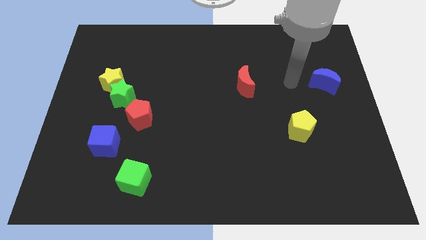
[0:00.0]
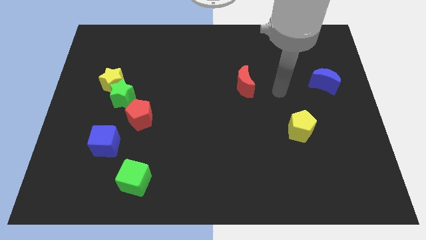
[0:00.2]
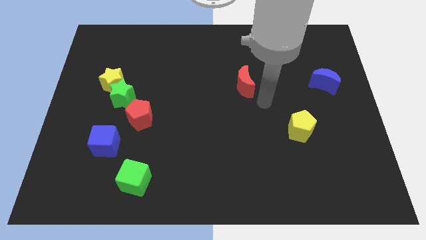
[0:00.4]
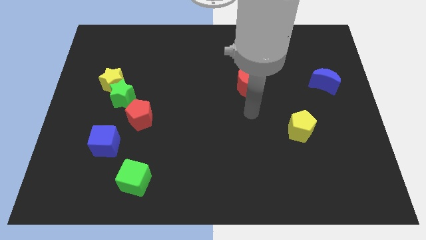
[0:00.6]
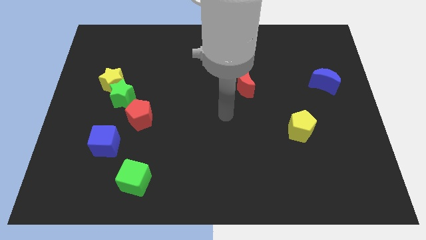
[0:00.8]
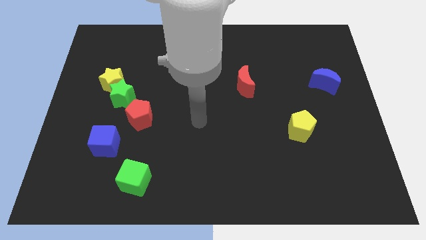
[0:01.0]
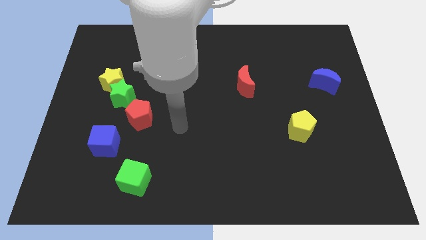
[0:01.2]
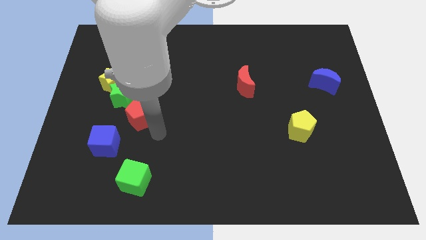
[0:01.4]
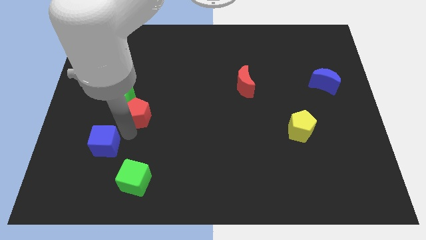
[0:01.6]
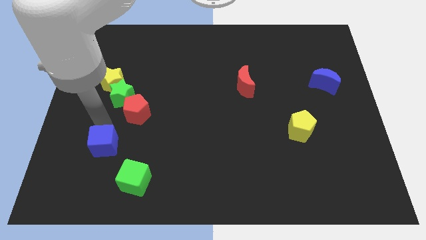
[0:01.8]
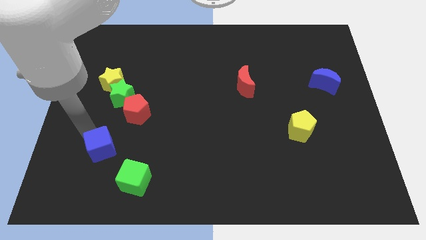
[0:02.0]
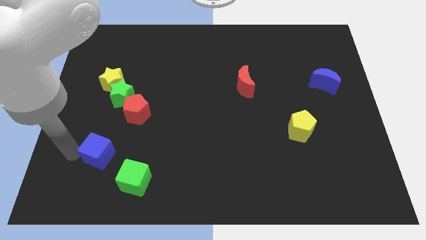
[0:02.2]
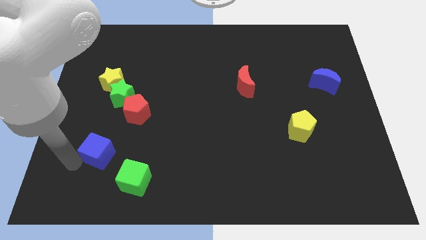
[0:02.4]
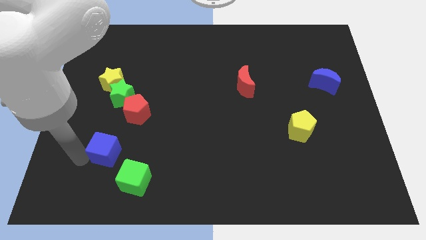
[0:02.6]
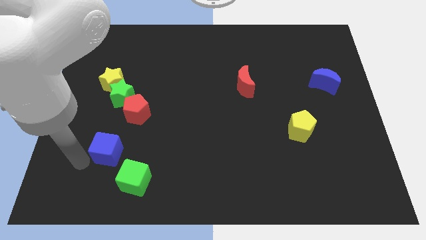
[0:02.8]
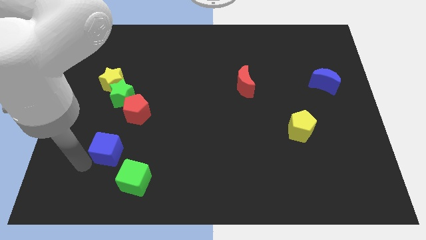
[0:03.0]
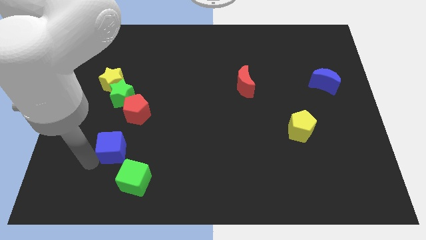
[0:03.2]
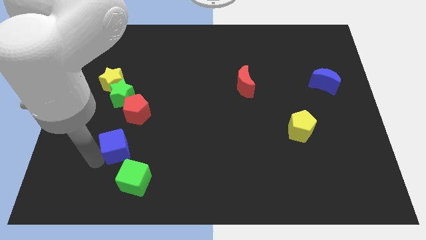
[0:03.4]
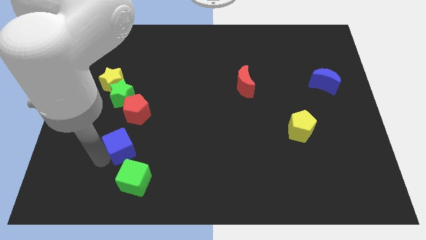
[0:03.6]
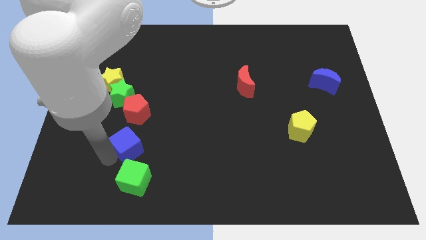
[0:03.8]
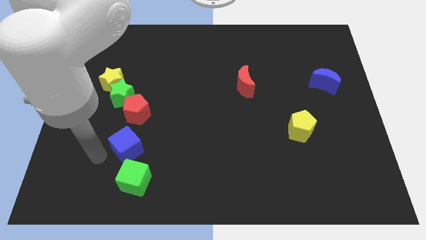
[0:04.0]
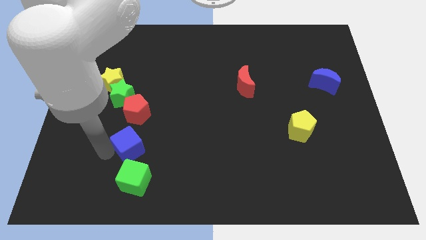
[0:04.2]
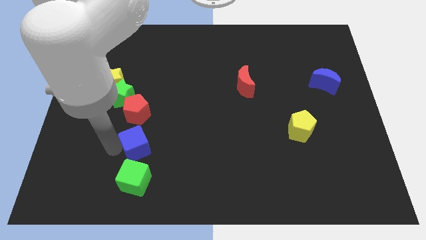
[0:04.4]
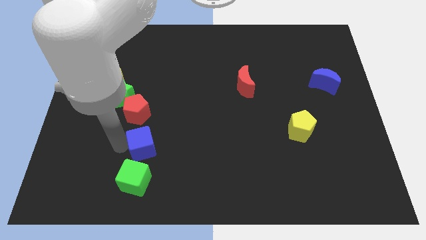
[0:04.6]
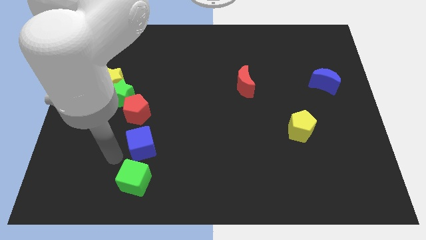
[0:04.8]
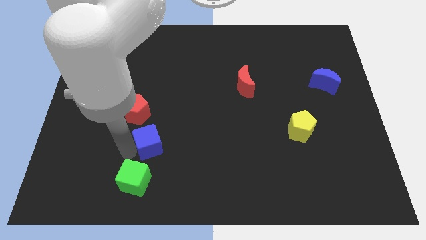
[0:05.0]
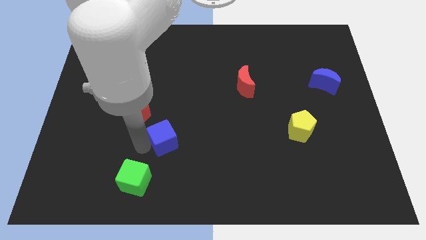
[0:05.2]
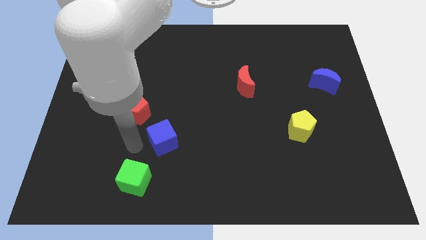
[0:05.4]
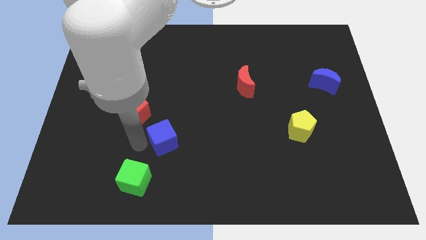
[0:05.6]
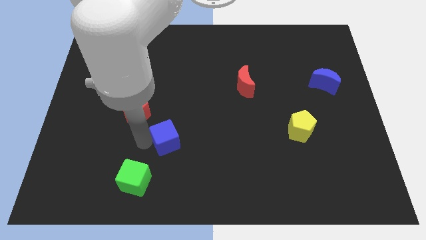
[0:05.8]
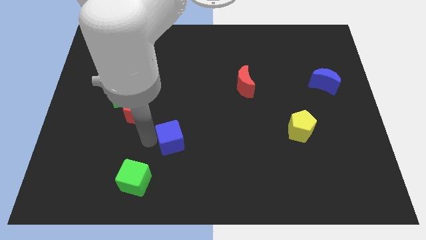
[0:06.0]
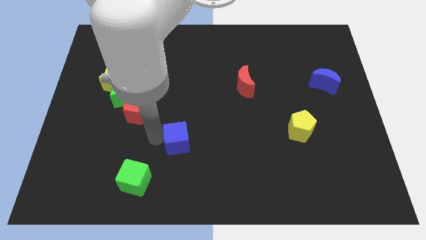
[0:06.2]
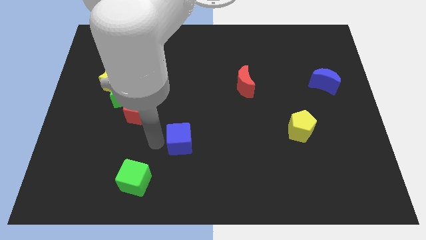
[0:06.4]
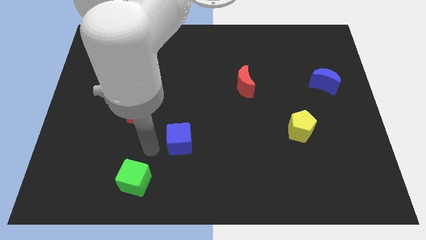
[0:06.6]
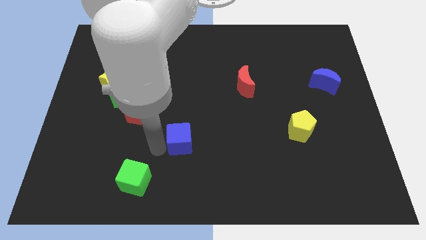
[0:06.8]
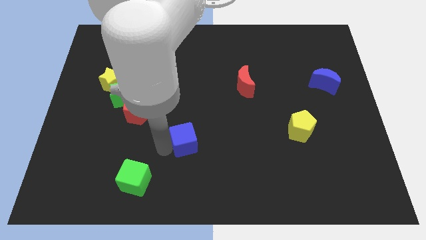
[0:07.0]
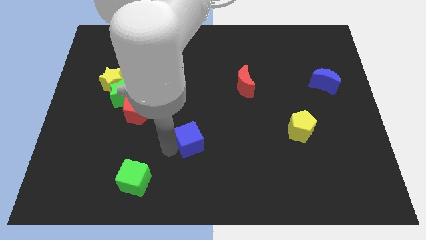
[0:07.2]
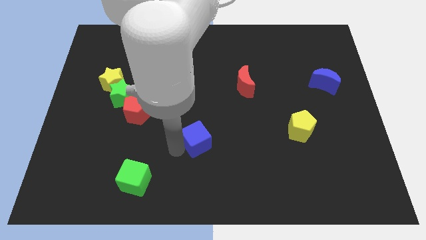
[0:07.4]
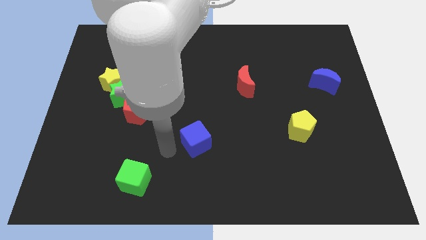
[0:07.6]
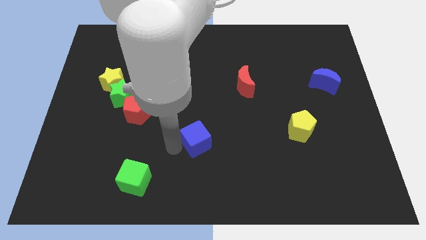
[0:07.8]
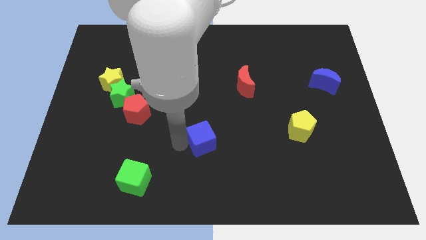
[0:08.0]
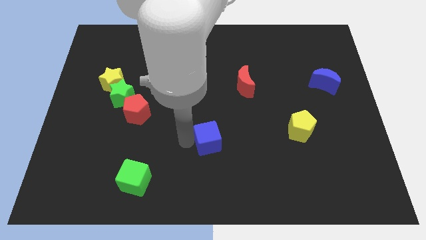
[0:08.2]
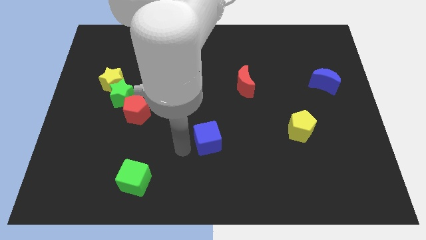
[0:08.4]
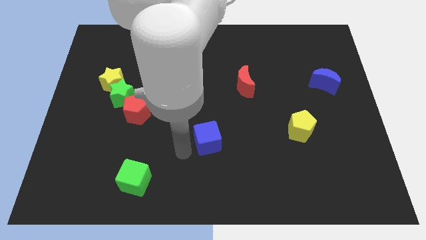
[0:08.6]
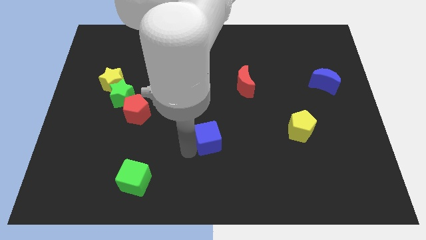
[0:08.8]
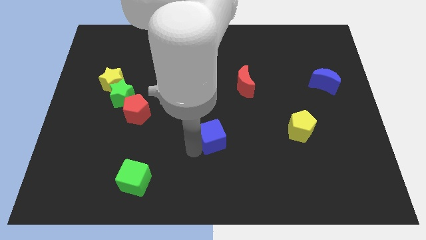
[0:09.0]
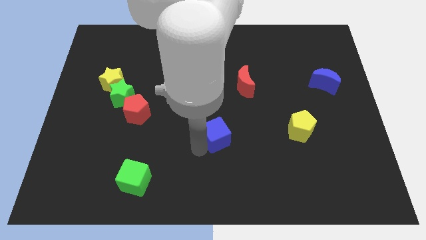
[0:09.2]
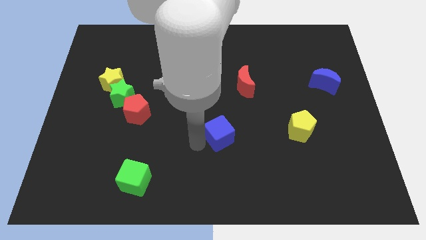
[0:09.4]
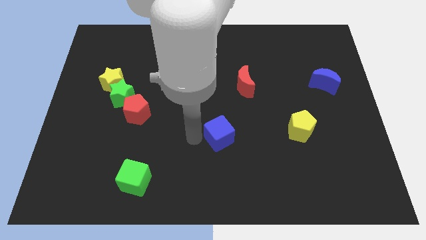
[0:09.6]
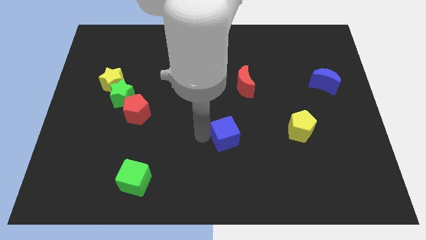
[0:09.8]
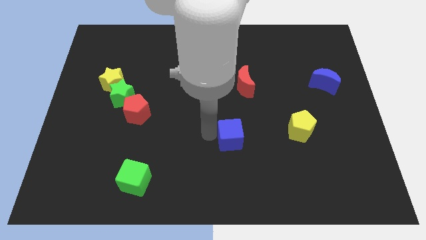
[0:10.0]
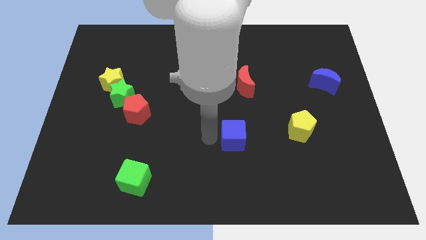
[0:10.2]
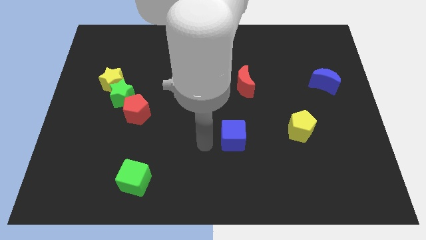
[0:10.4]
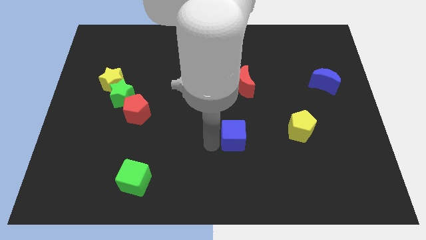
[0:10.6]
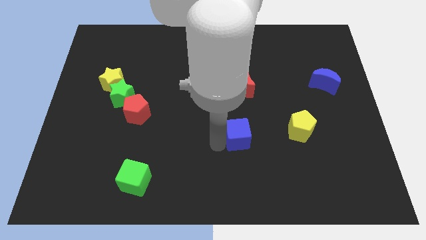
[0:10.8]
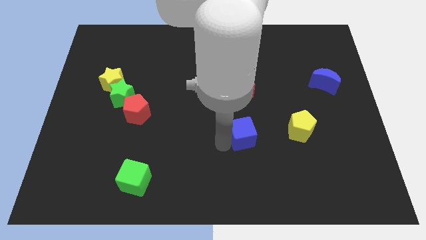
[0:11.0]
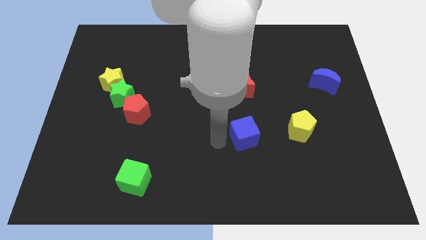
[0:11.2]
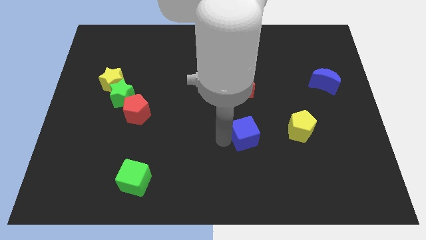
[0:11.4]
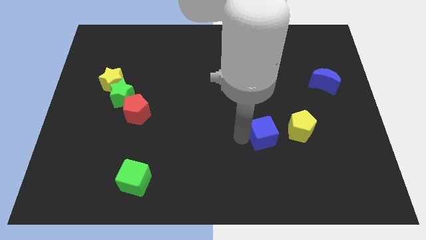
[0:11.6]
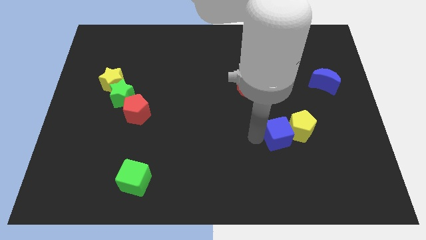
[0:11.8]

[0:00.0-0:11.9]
move the blue cube close to the yellow pentagon

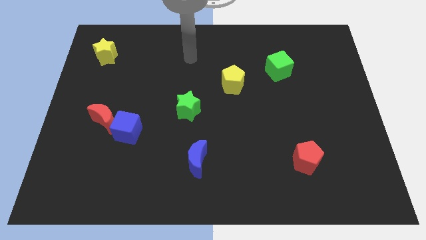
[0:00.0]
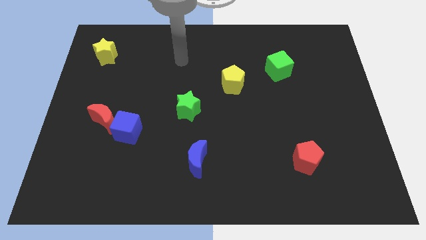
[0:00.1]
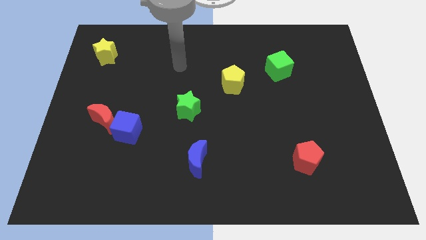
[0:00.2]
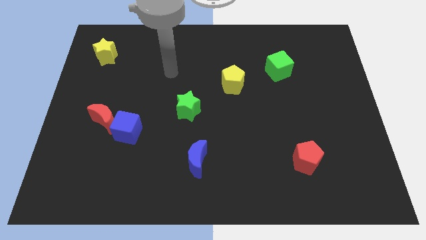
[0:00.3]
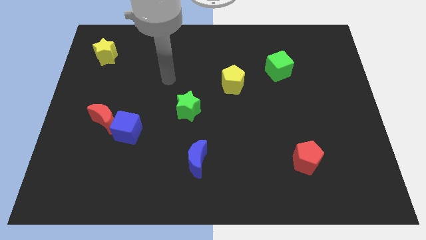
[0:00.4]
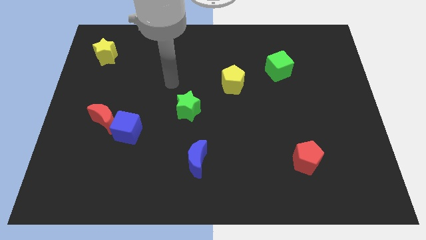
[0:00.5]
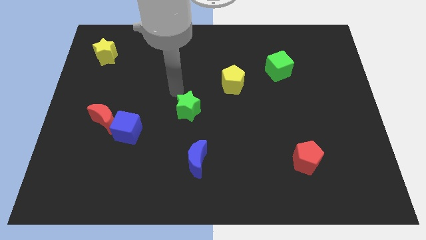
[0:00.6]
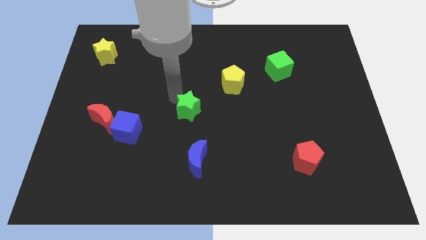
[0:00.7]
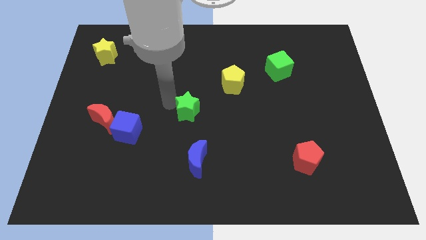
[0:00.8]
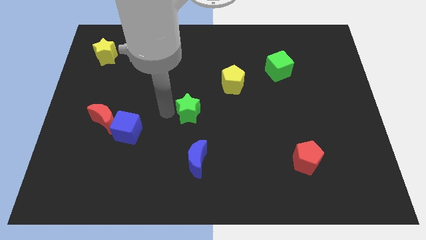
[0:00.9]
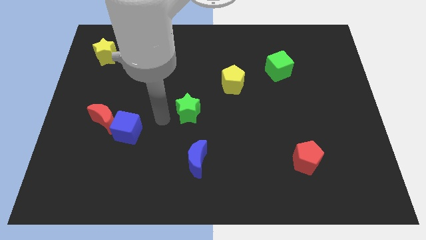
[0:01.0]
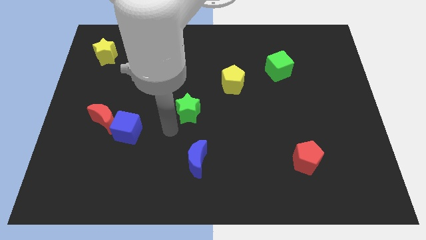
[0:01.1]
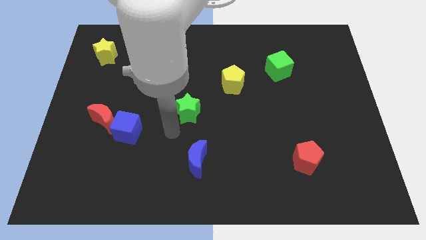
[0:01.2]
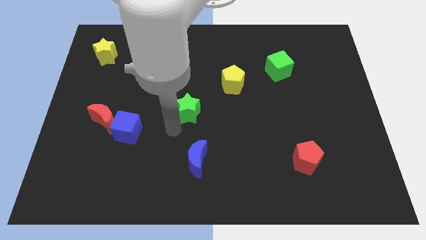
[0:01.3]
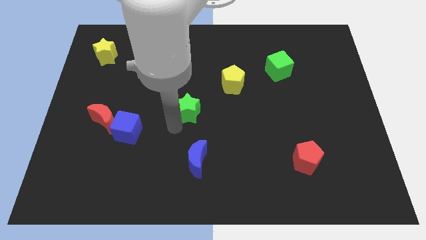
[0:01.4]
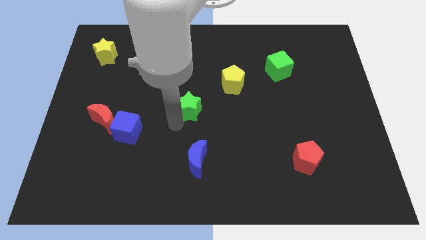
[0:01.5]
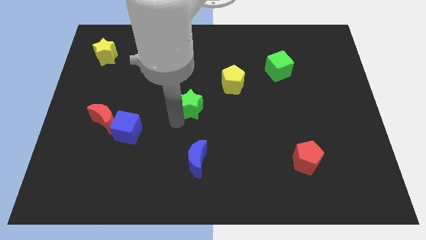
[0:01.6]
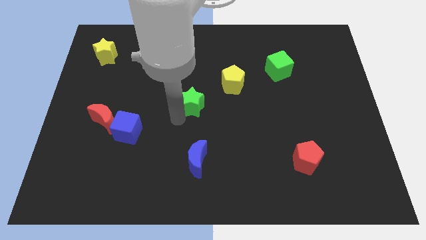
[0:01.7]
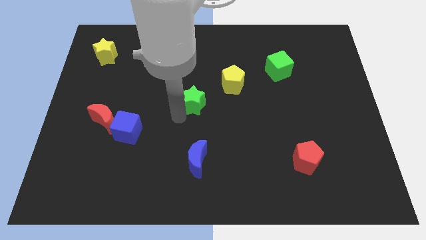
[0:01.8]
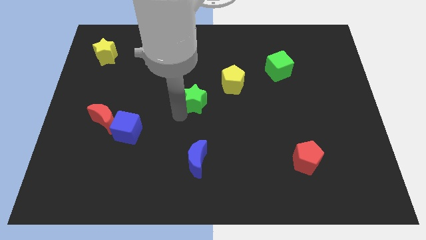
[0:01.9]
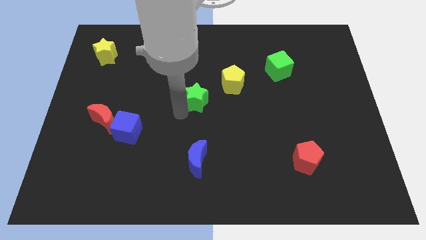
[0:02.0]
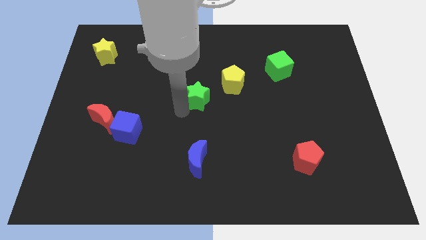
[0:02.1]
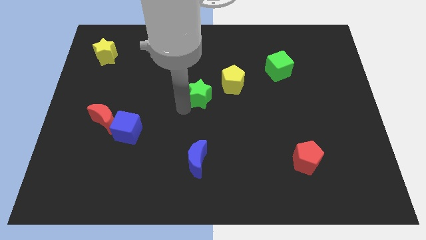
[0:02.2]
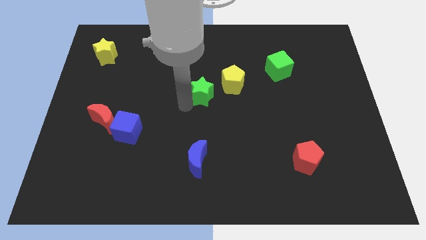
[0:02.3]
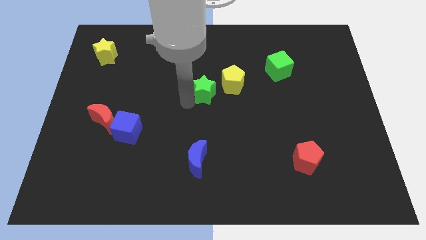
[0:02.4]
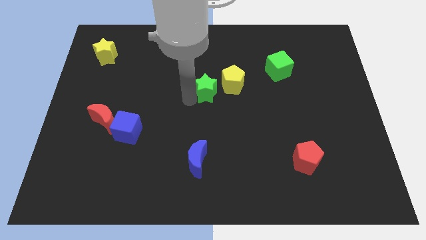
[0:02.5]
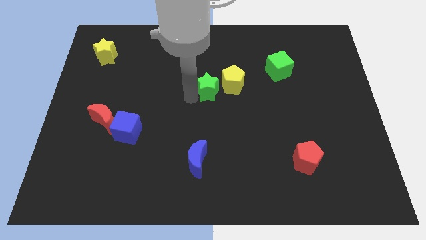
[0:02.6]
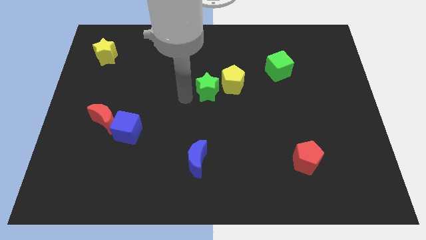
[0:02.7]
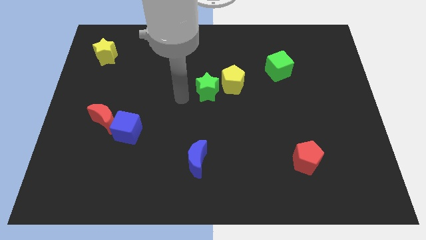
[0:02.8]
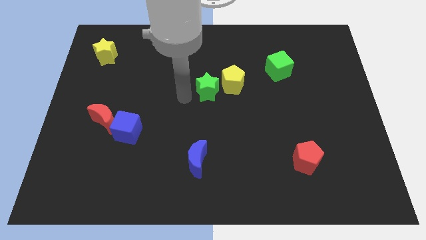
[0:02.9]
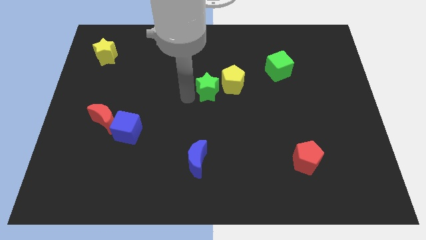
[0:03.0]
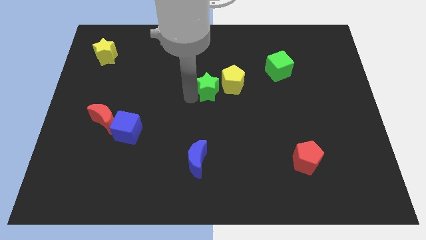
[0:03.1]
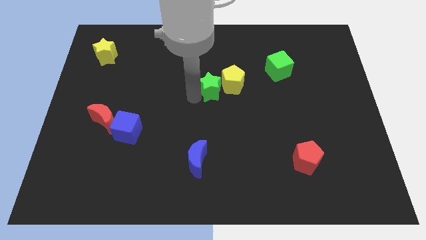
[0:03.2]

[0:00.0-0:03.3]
move the green star next to the yellow pentagon
